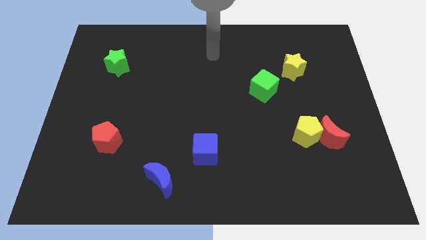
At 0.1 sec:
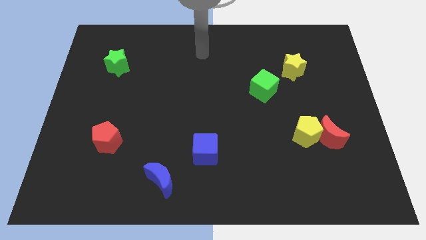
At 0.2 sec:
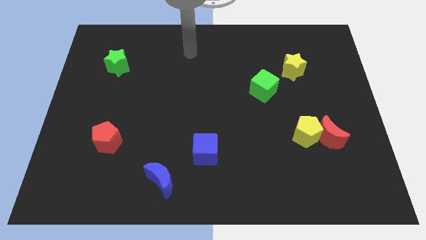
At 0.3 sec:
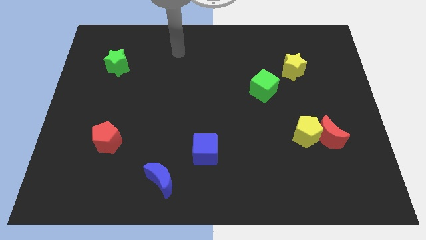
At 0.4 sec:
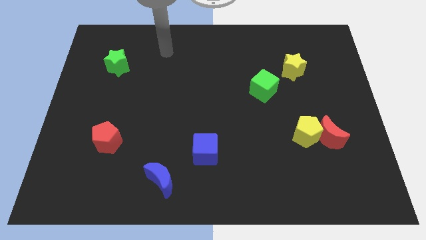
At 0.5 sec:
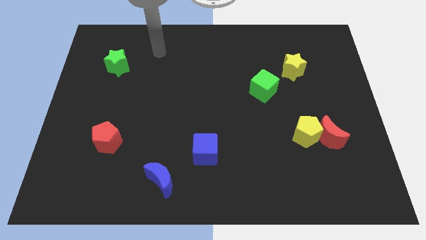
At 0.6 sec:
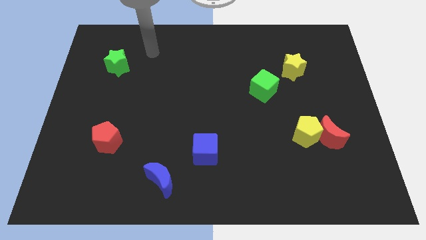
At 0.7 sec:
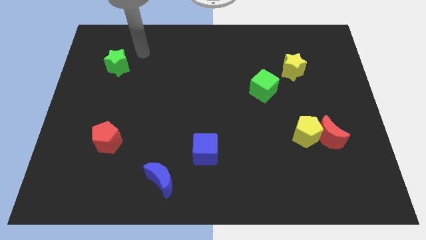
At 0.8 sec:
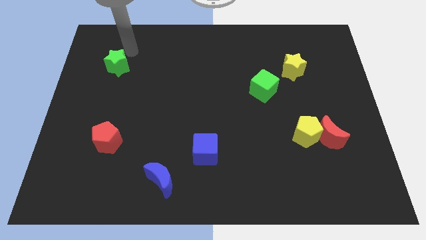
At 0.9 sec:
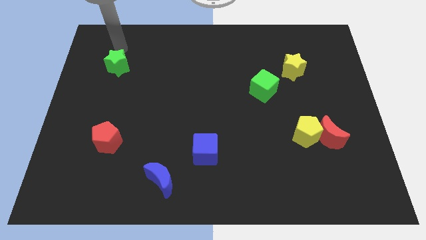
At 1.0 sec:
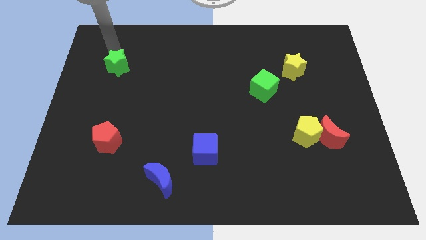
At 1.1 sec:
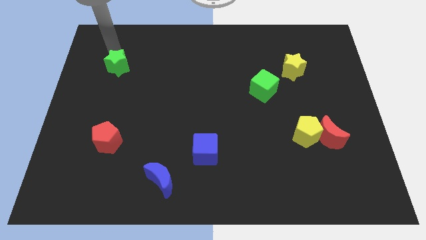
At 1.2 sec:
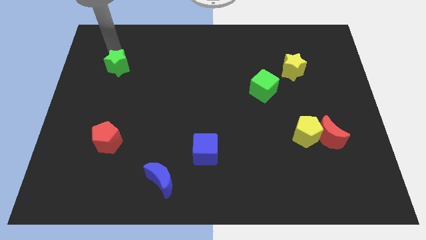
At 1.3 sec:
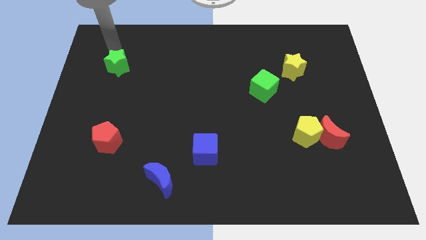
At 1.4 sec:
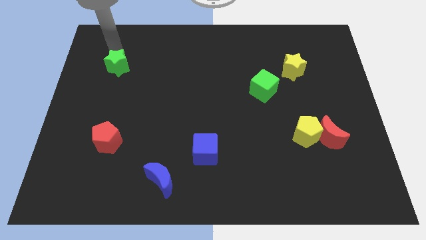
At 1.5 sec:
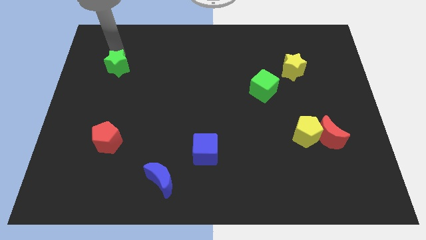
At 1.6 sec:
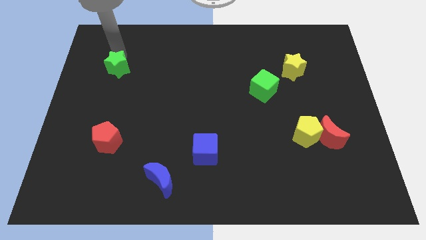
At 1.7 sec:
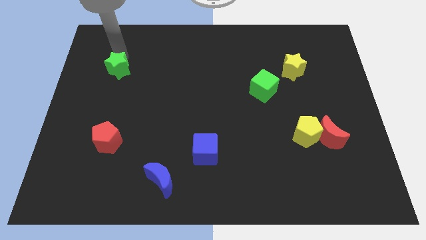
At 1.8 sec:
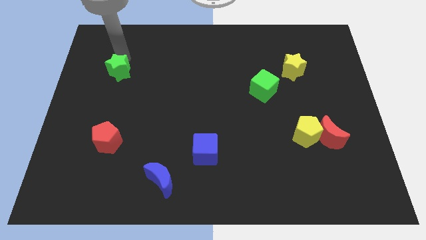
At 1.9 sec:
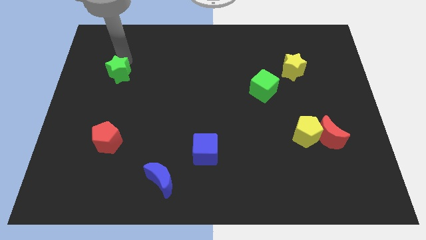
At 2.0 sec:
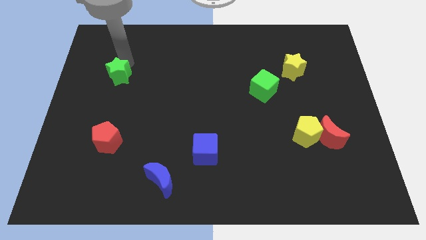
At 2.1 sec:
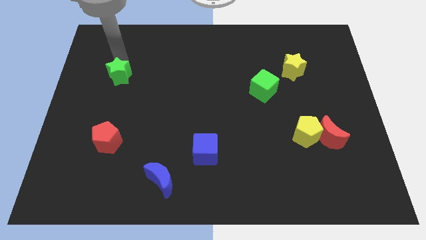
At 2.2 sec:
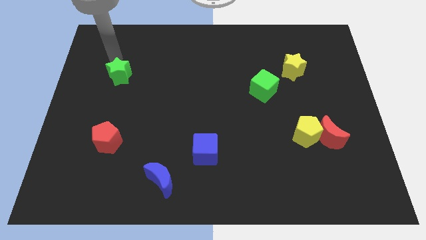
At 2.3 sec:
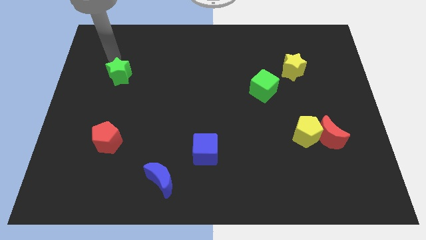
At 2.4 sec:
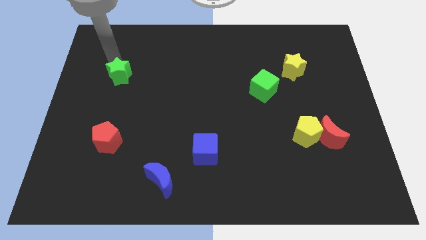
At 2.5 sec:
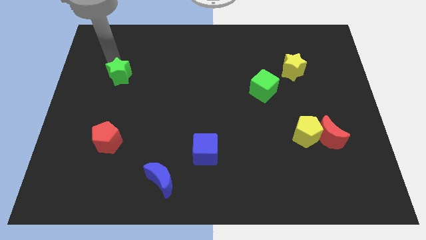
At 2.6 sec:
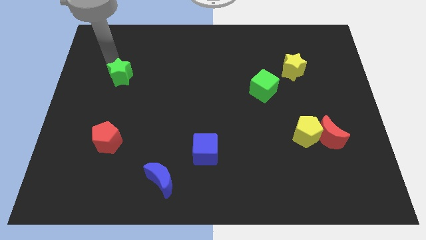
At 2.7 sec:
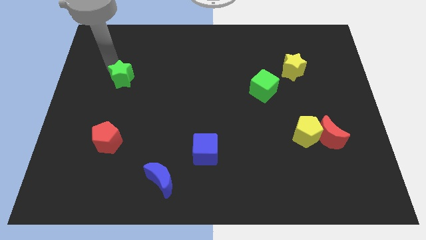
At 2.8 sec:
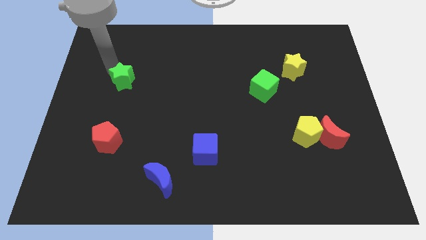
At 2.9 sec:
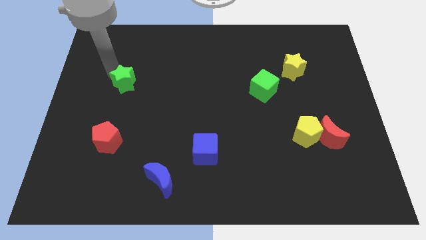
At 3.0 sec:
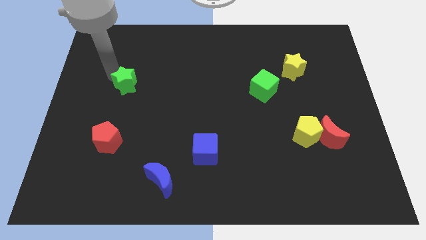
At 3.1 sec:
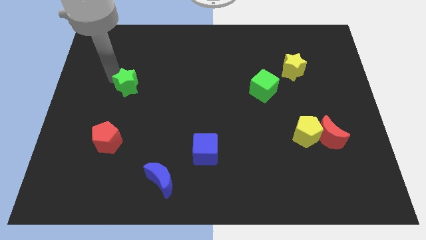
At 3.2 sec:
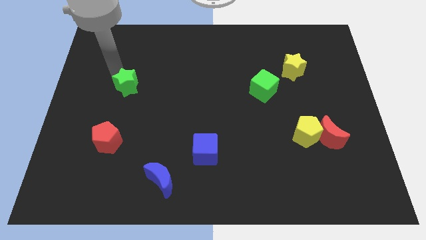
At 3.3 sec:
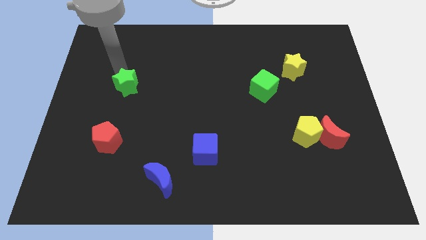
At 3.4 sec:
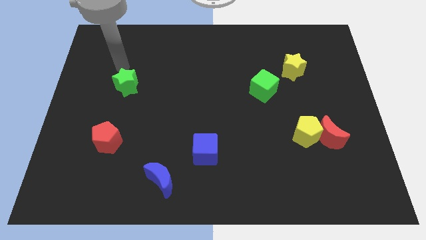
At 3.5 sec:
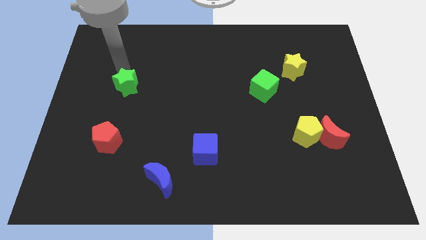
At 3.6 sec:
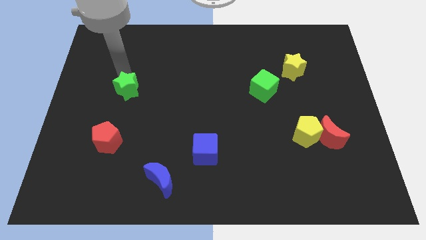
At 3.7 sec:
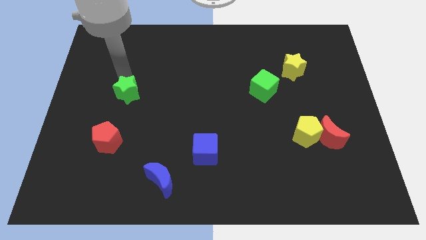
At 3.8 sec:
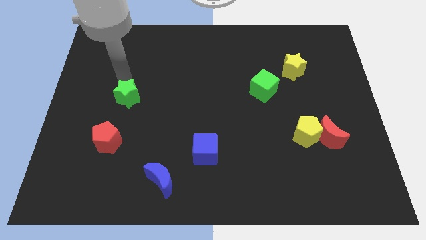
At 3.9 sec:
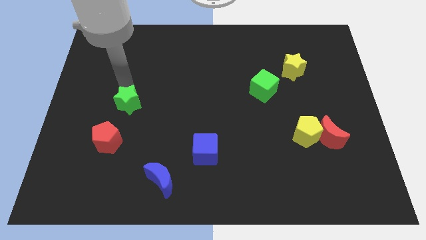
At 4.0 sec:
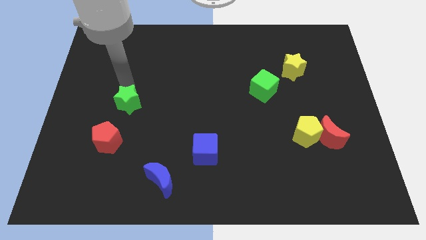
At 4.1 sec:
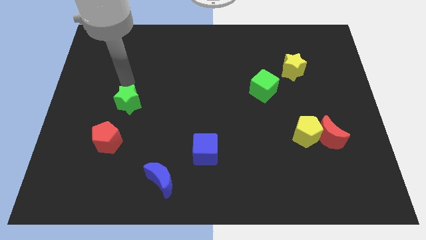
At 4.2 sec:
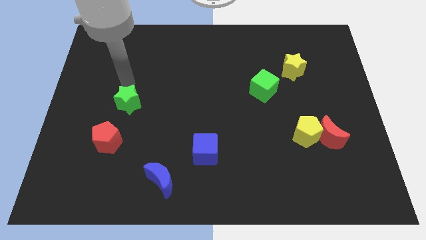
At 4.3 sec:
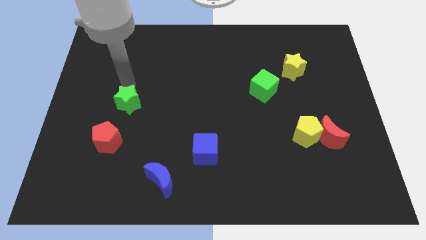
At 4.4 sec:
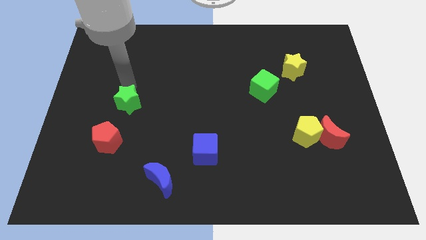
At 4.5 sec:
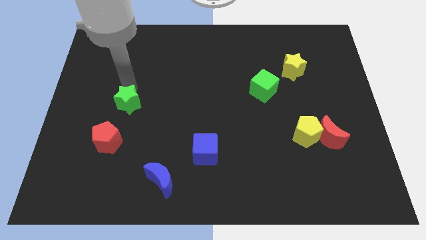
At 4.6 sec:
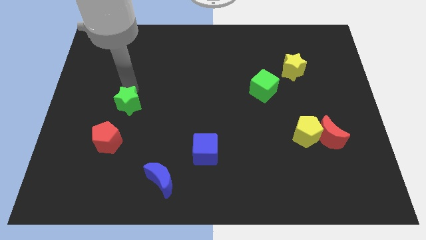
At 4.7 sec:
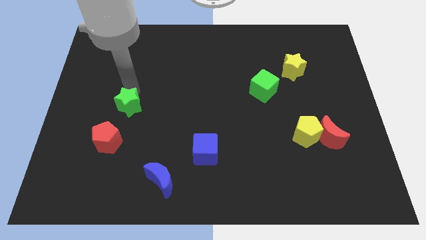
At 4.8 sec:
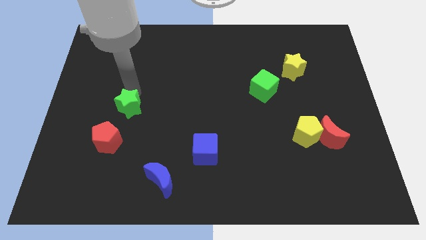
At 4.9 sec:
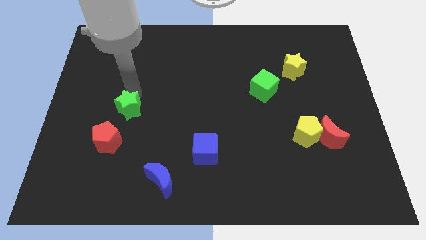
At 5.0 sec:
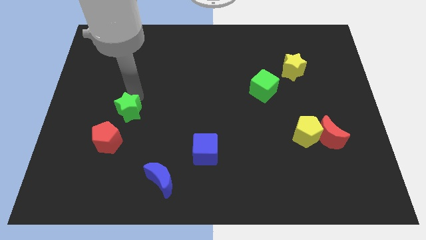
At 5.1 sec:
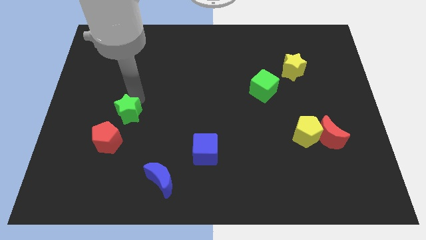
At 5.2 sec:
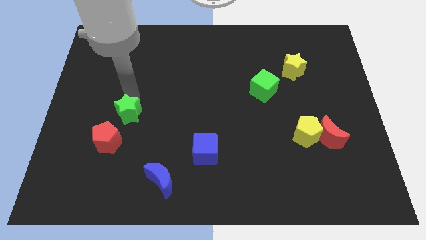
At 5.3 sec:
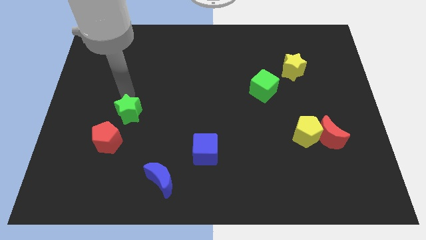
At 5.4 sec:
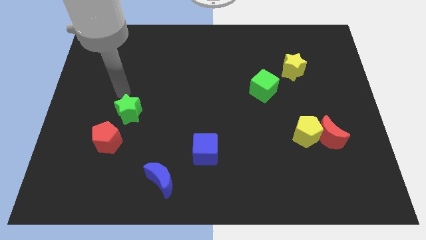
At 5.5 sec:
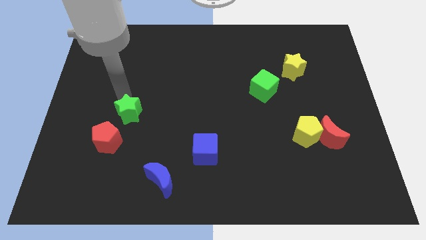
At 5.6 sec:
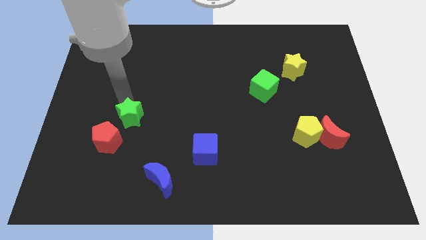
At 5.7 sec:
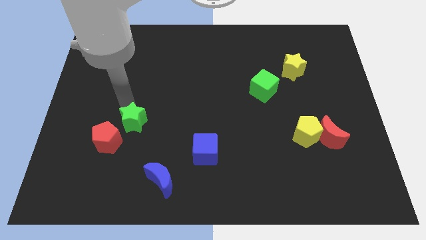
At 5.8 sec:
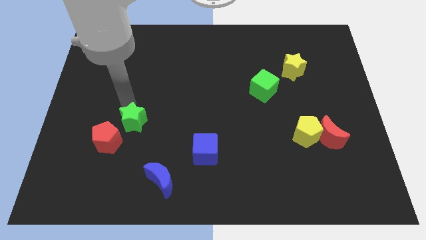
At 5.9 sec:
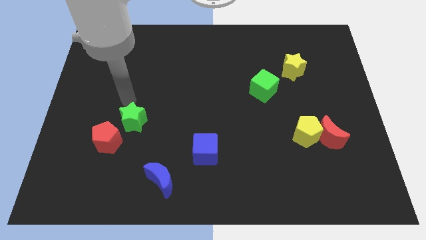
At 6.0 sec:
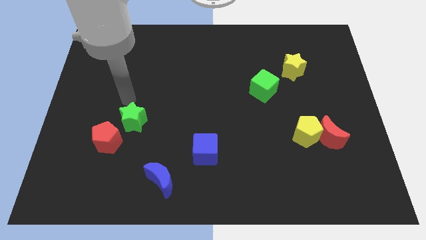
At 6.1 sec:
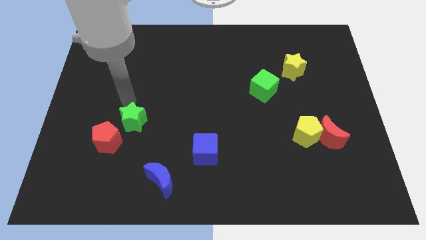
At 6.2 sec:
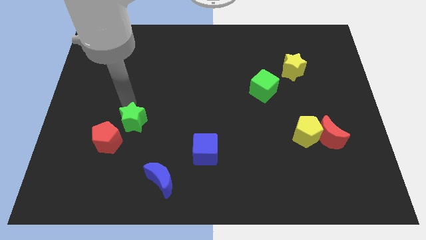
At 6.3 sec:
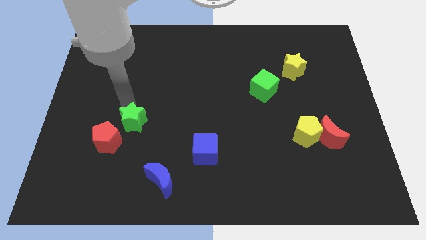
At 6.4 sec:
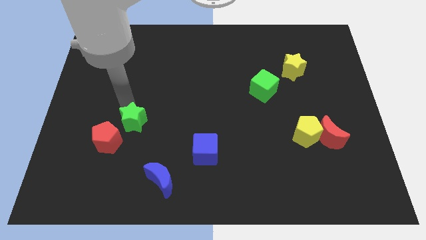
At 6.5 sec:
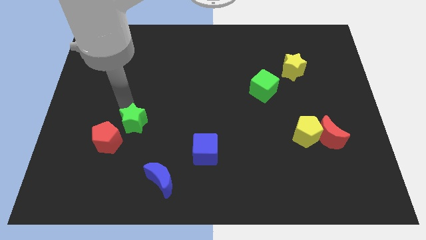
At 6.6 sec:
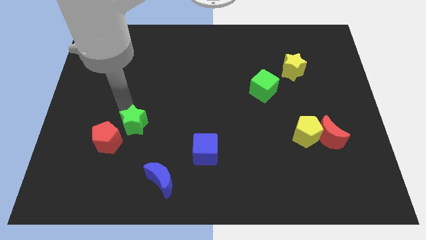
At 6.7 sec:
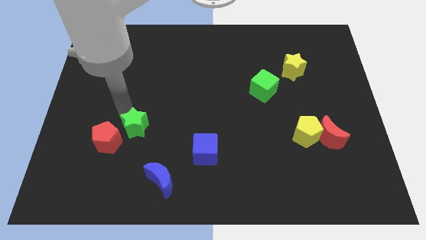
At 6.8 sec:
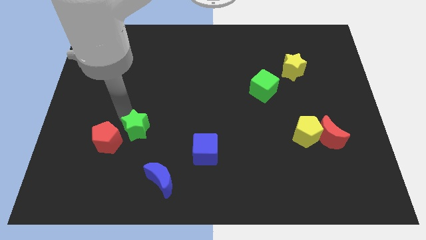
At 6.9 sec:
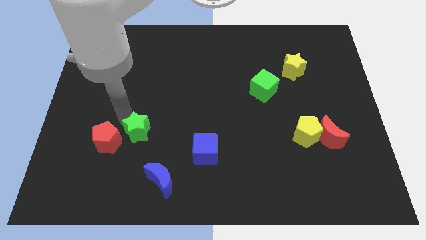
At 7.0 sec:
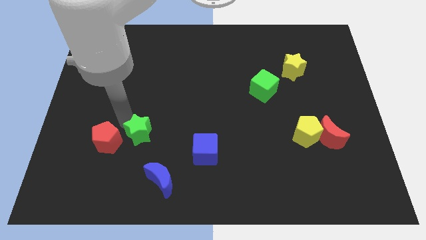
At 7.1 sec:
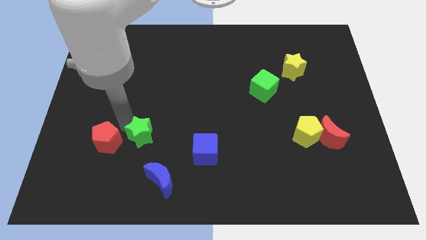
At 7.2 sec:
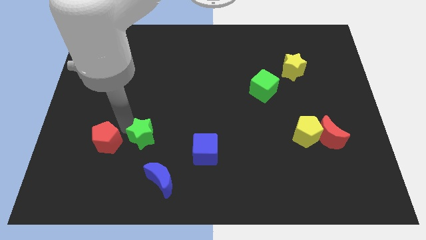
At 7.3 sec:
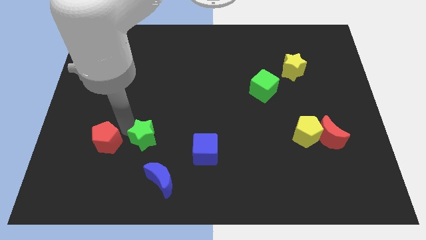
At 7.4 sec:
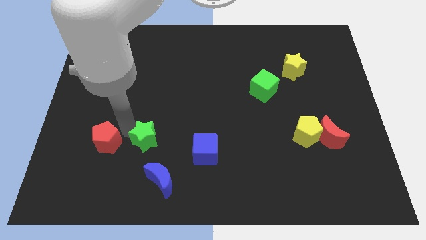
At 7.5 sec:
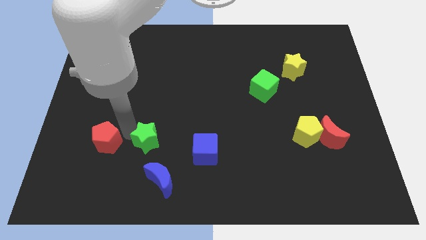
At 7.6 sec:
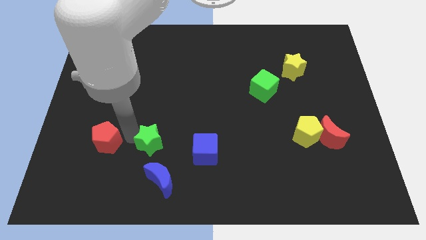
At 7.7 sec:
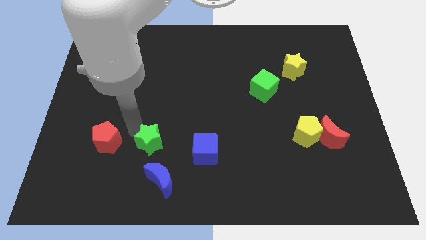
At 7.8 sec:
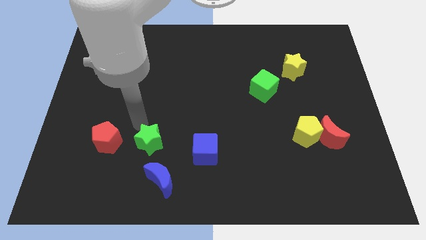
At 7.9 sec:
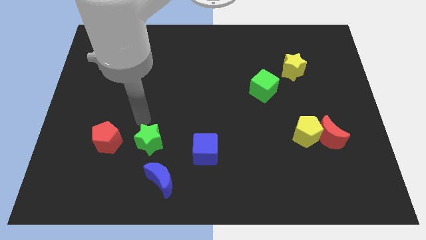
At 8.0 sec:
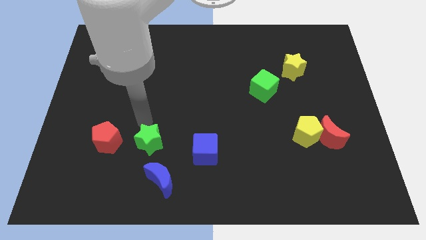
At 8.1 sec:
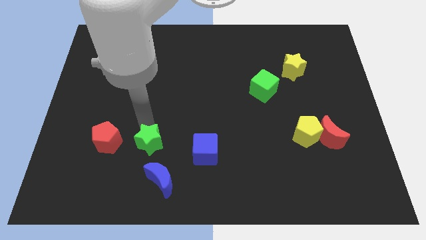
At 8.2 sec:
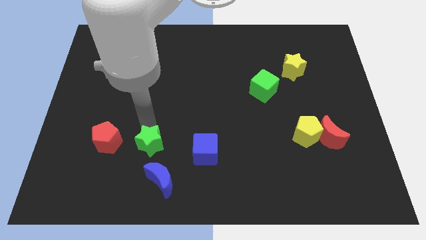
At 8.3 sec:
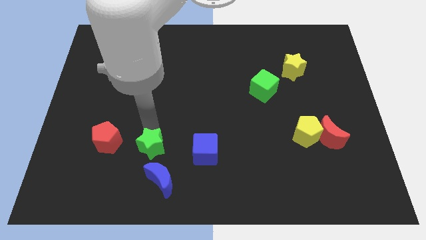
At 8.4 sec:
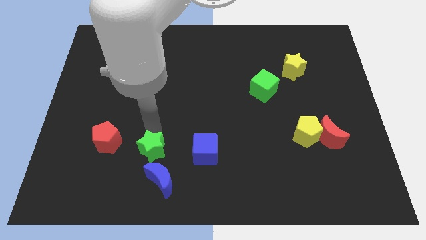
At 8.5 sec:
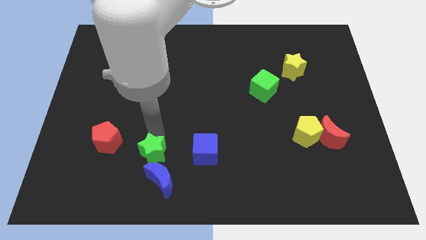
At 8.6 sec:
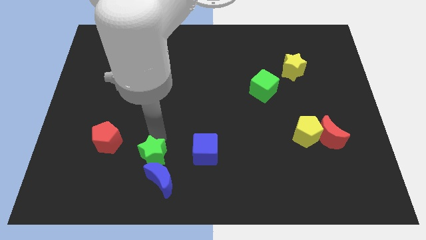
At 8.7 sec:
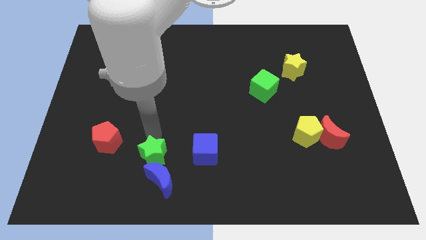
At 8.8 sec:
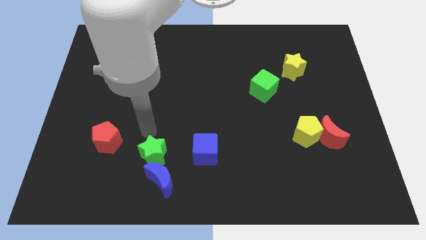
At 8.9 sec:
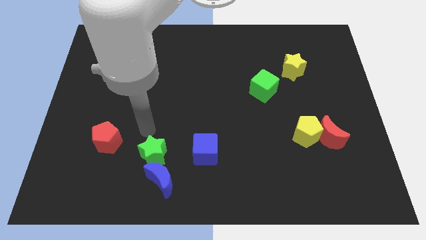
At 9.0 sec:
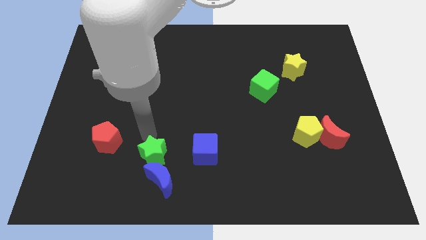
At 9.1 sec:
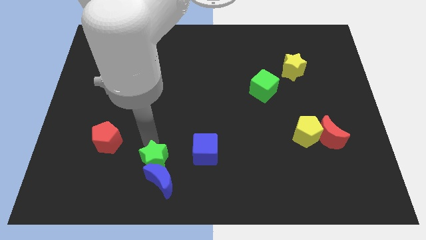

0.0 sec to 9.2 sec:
put the green star close to the blue moon
